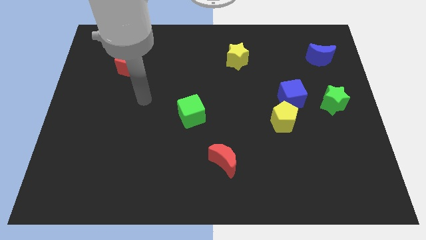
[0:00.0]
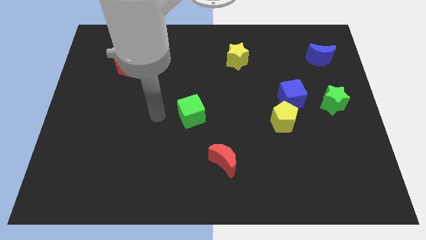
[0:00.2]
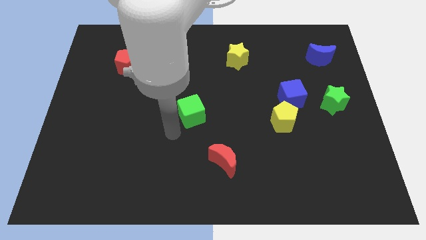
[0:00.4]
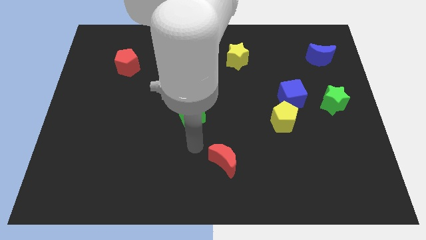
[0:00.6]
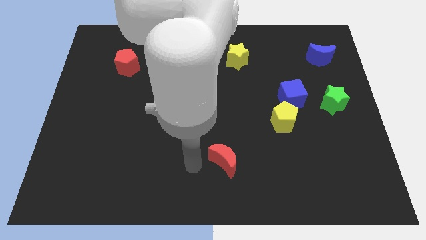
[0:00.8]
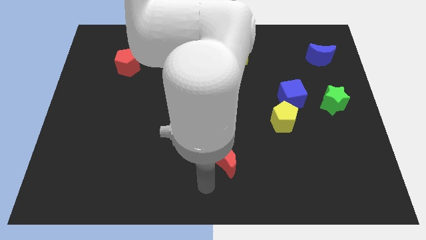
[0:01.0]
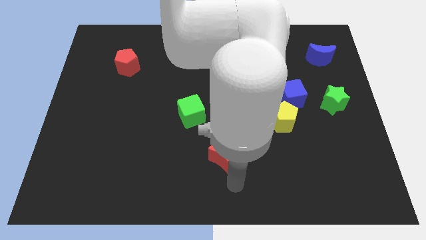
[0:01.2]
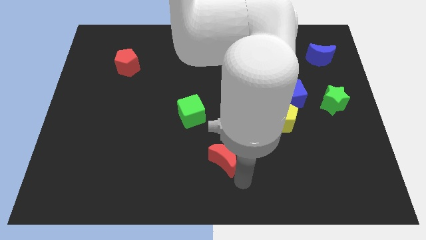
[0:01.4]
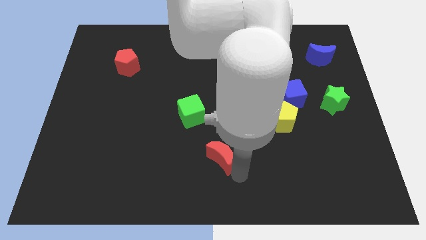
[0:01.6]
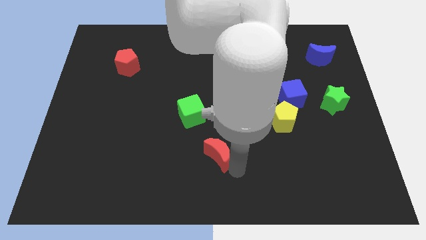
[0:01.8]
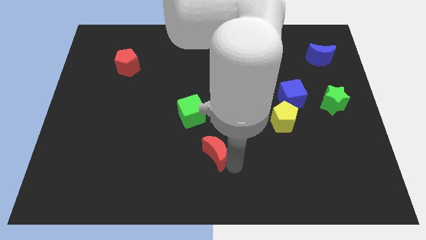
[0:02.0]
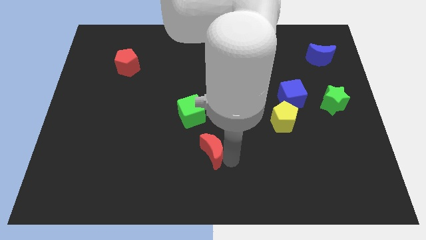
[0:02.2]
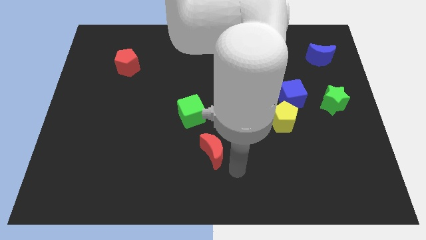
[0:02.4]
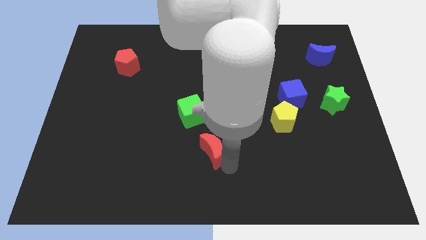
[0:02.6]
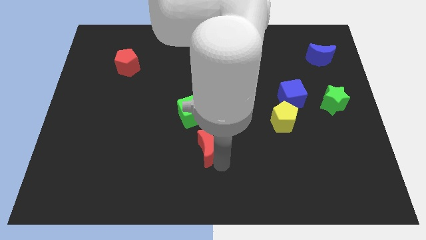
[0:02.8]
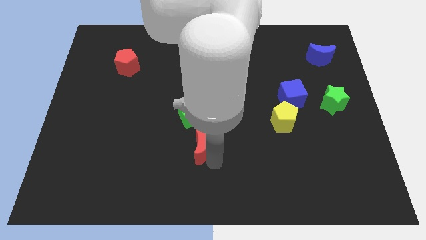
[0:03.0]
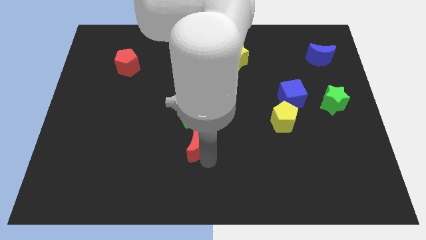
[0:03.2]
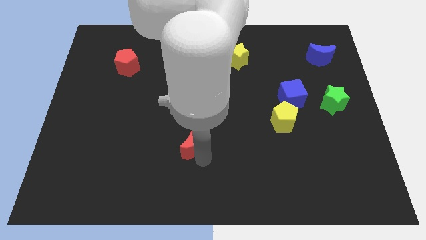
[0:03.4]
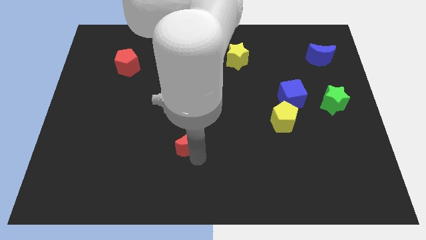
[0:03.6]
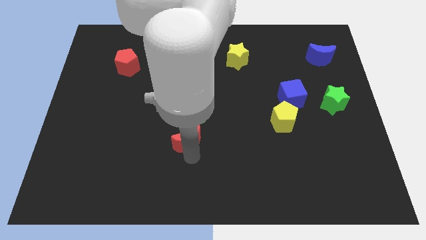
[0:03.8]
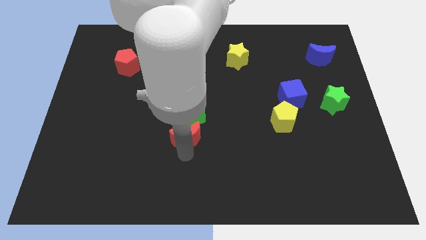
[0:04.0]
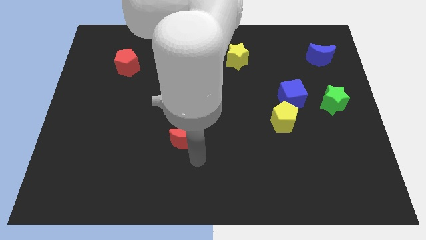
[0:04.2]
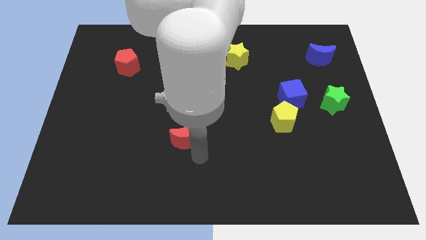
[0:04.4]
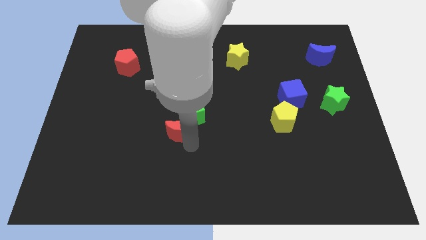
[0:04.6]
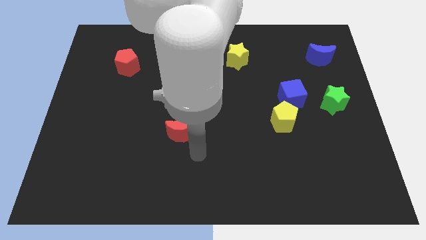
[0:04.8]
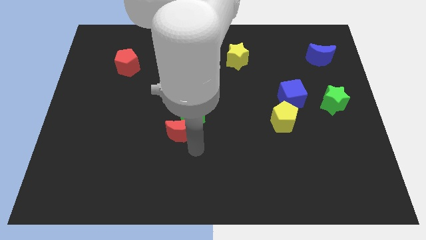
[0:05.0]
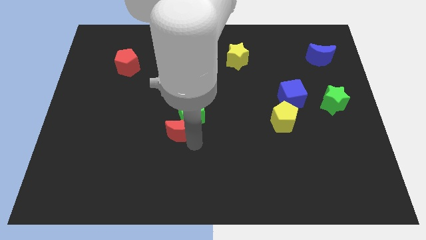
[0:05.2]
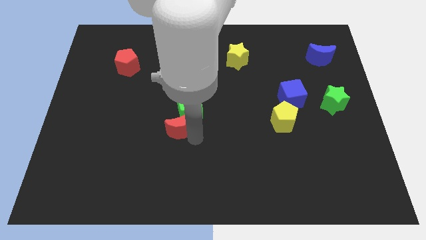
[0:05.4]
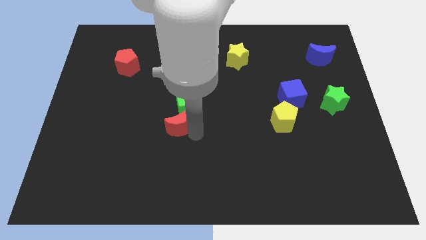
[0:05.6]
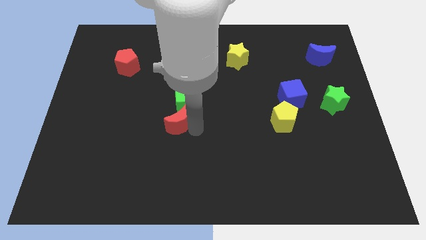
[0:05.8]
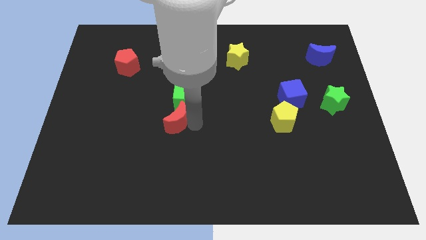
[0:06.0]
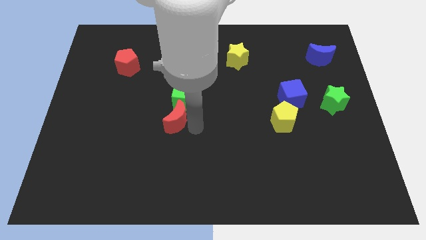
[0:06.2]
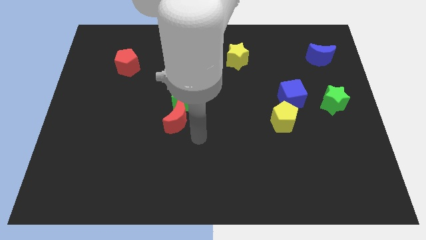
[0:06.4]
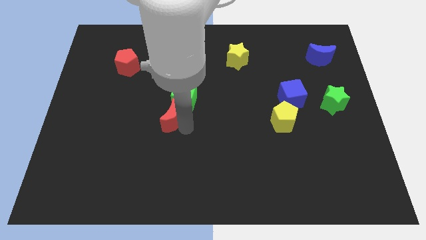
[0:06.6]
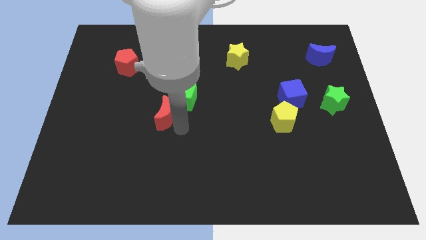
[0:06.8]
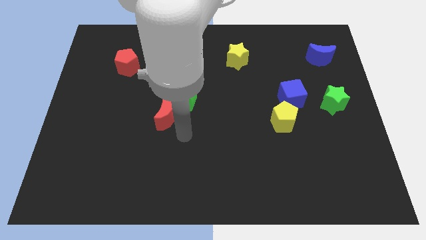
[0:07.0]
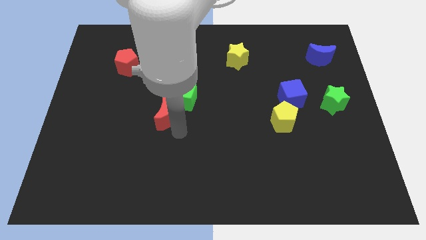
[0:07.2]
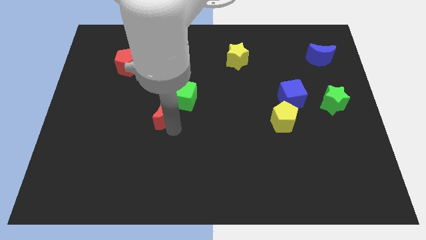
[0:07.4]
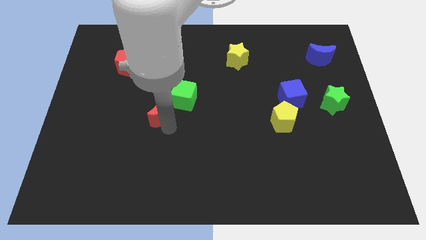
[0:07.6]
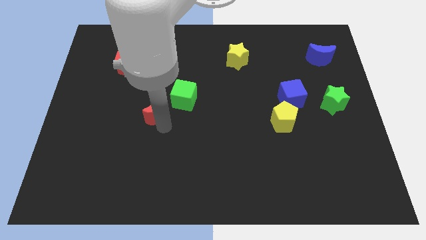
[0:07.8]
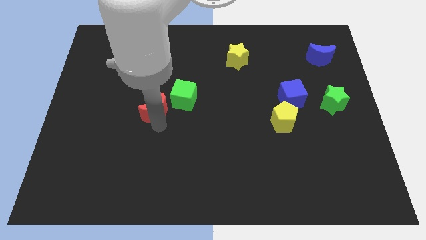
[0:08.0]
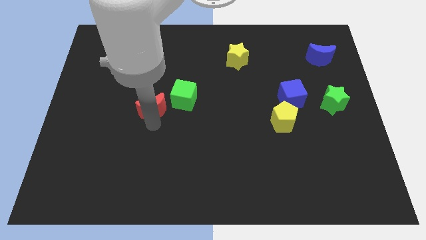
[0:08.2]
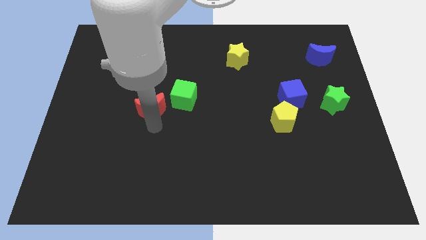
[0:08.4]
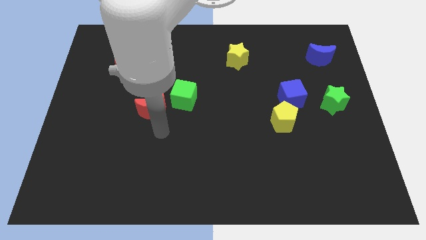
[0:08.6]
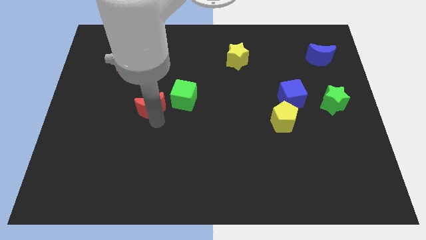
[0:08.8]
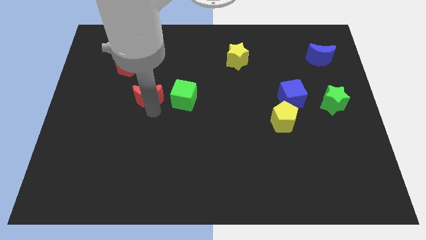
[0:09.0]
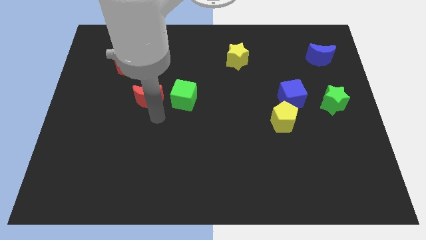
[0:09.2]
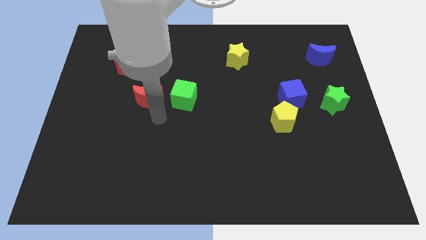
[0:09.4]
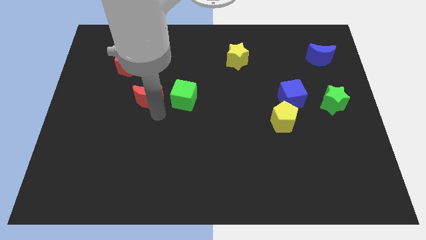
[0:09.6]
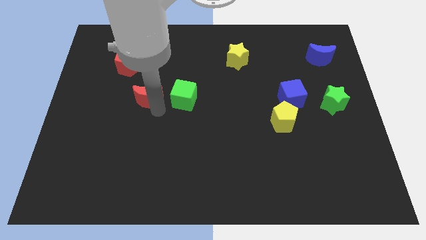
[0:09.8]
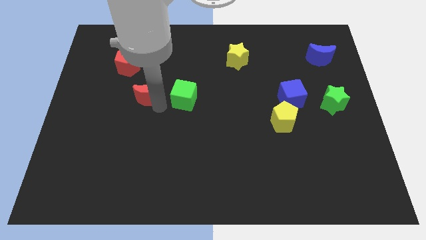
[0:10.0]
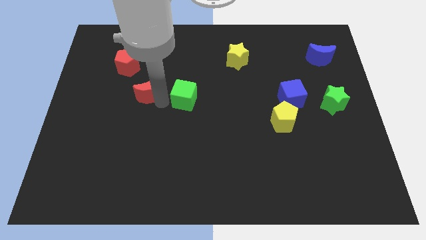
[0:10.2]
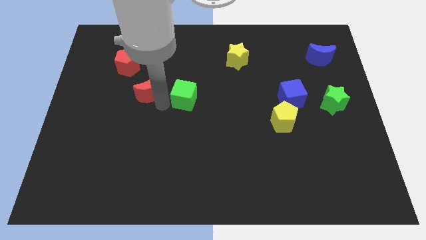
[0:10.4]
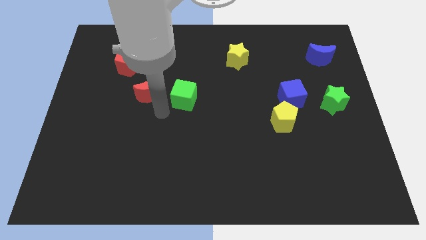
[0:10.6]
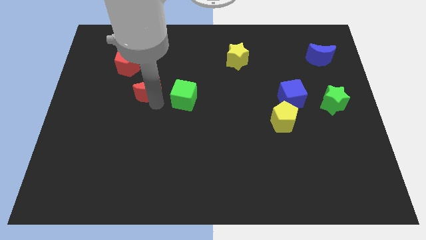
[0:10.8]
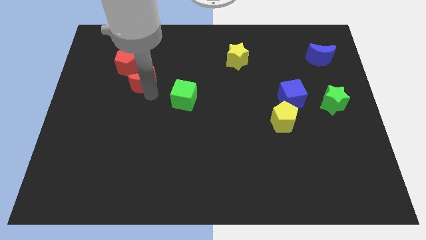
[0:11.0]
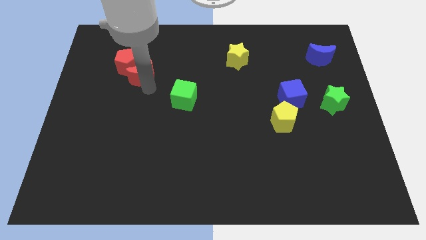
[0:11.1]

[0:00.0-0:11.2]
put the red moon close to the red pentagon

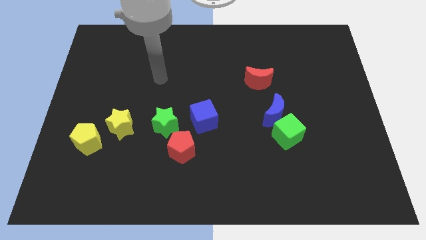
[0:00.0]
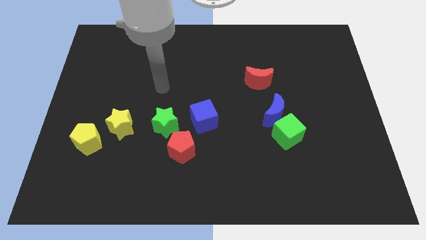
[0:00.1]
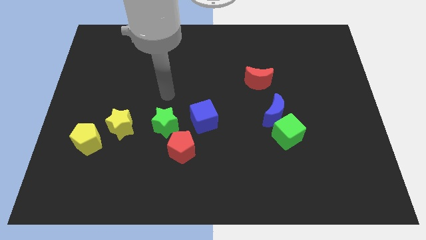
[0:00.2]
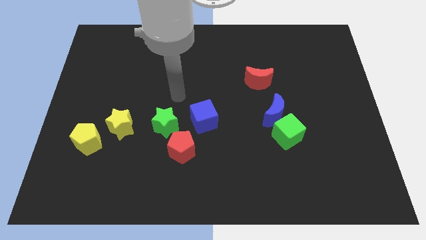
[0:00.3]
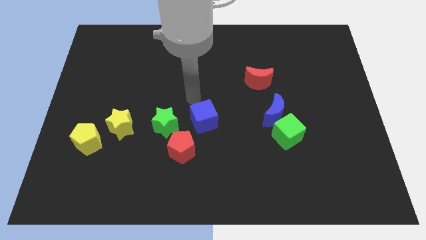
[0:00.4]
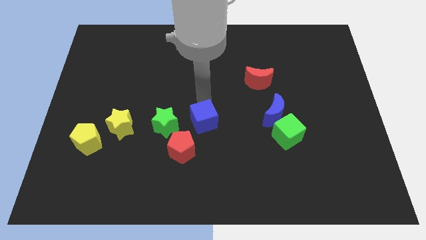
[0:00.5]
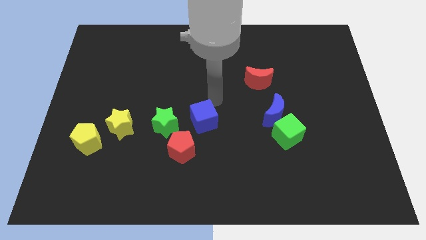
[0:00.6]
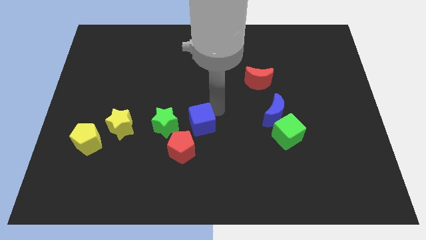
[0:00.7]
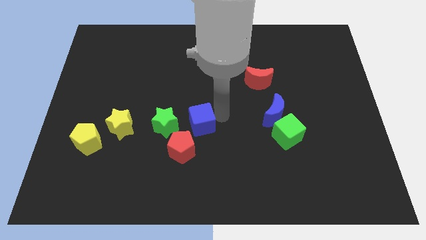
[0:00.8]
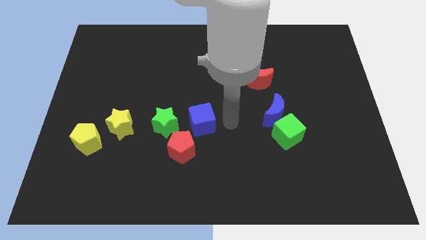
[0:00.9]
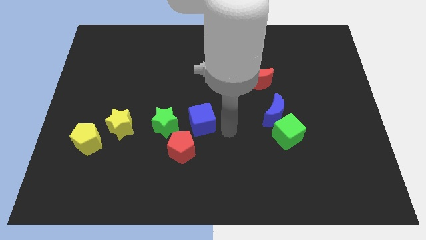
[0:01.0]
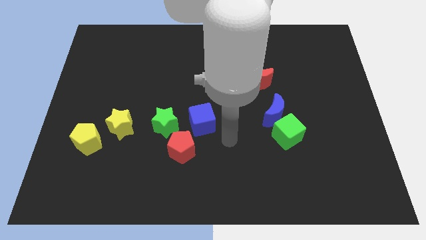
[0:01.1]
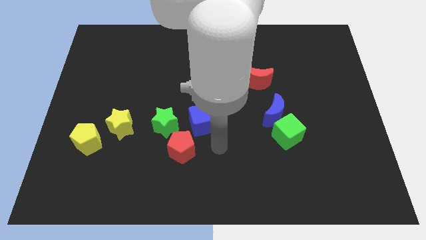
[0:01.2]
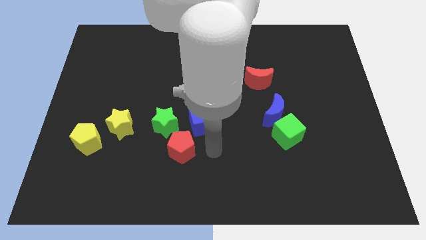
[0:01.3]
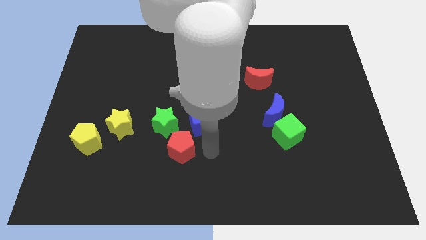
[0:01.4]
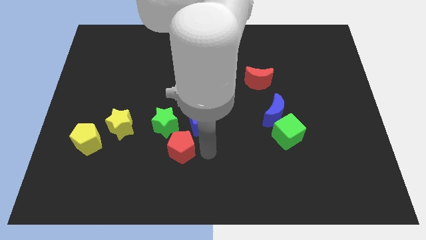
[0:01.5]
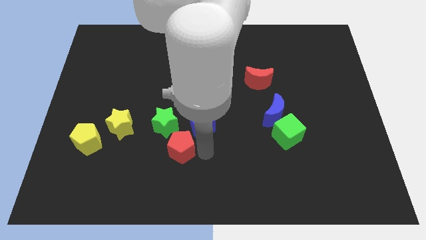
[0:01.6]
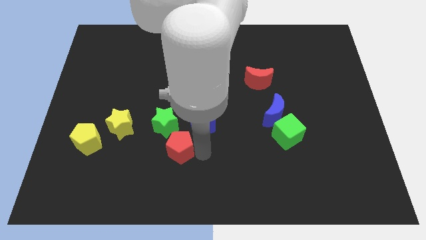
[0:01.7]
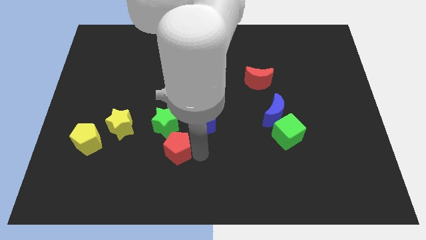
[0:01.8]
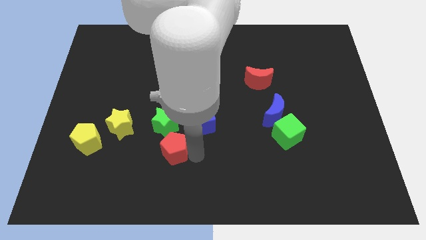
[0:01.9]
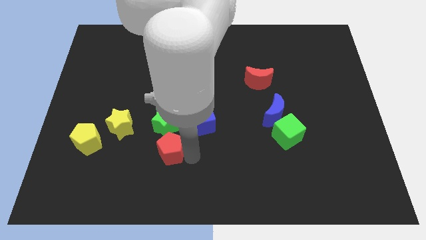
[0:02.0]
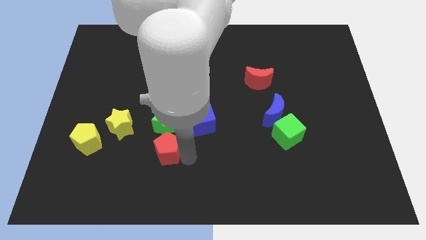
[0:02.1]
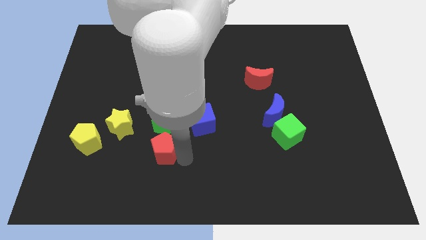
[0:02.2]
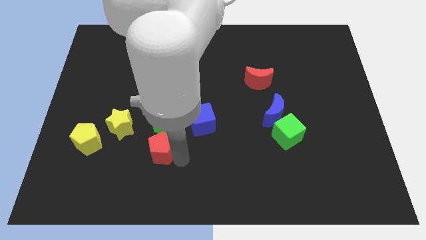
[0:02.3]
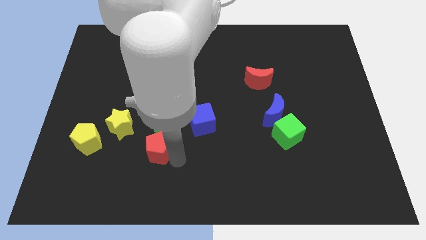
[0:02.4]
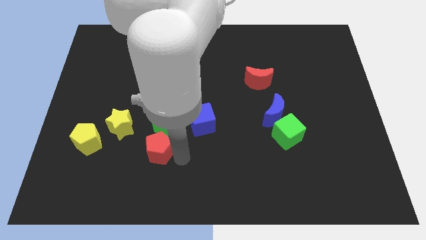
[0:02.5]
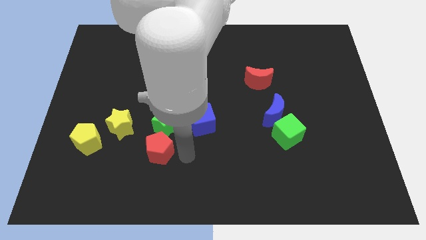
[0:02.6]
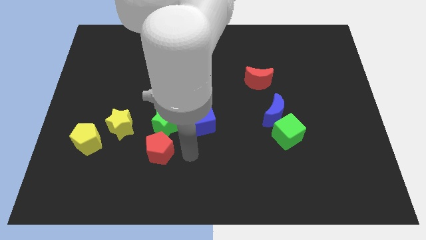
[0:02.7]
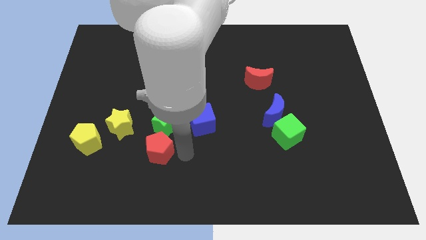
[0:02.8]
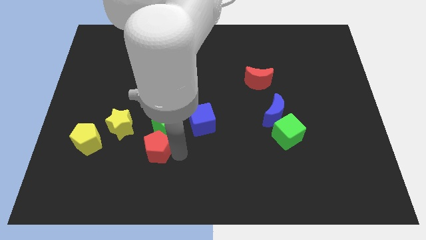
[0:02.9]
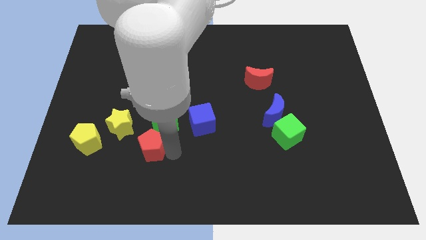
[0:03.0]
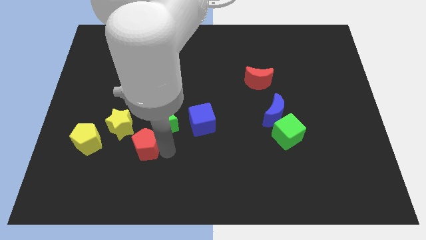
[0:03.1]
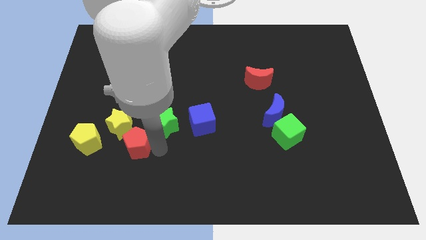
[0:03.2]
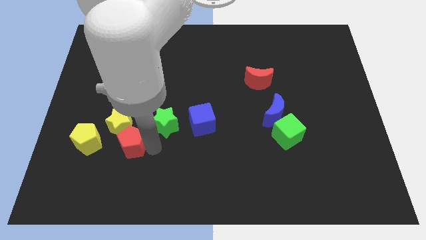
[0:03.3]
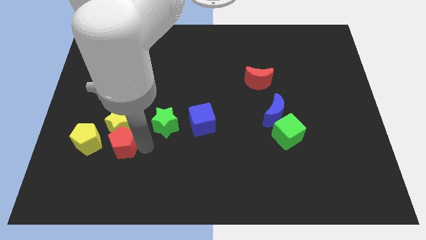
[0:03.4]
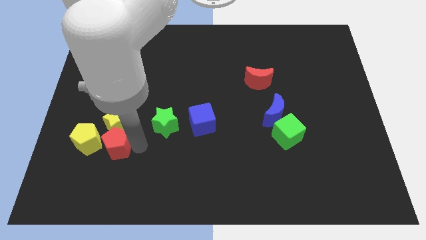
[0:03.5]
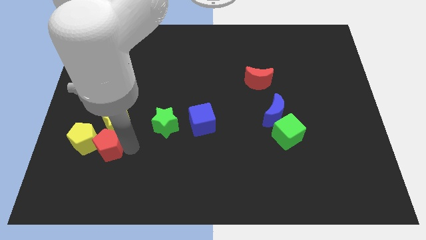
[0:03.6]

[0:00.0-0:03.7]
move the red pentagon next to the yellow pentagon
